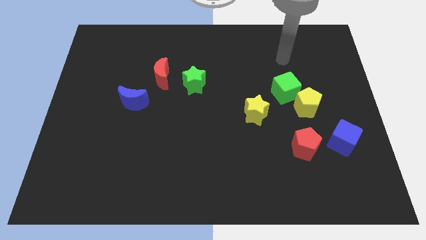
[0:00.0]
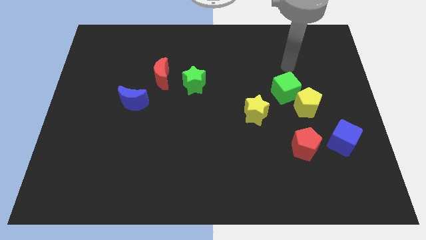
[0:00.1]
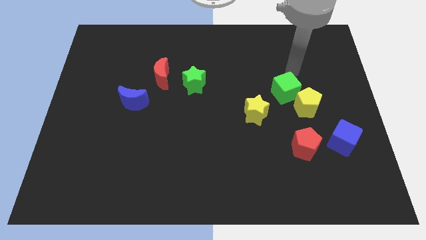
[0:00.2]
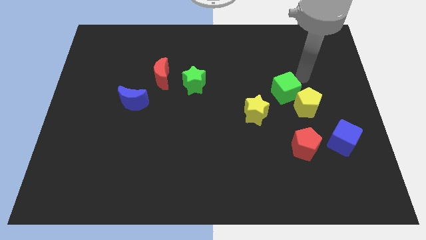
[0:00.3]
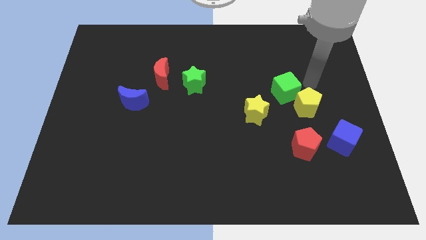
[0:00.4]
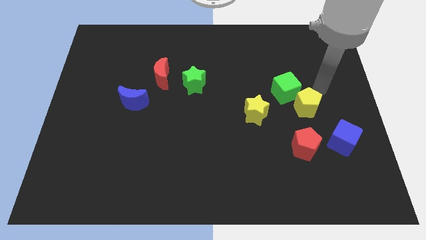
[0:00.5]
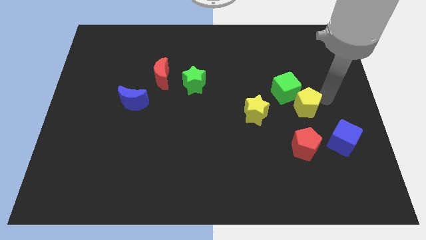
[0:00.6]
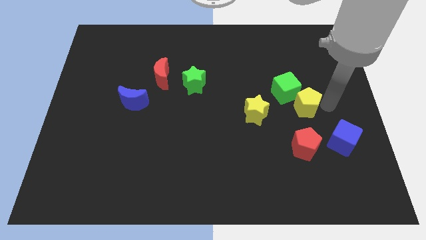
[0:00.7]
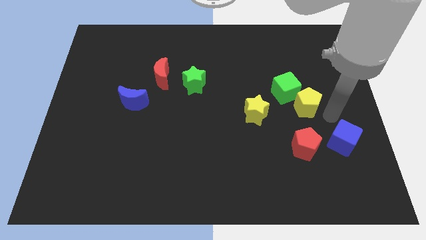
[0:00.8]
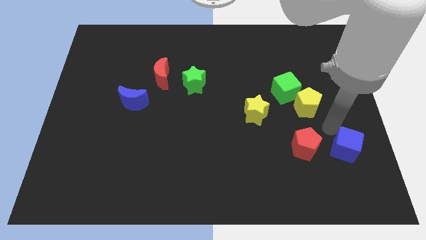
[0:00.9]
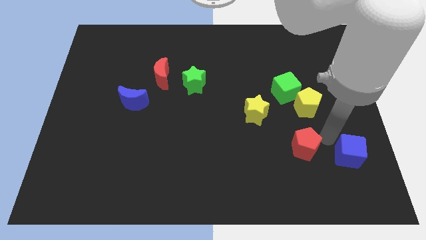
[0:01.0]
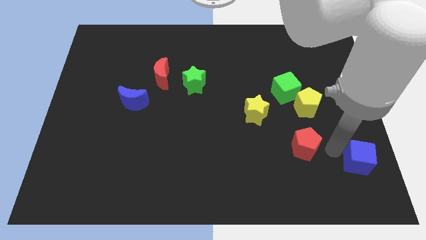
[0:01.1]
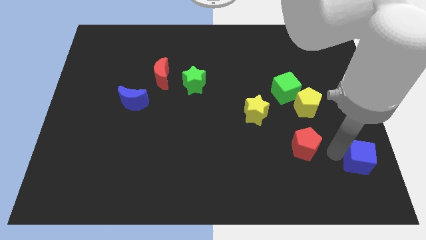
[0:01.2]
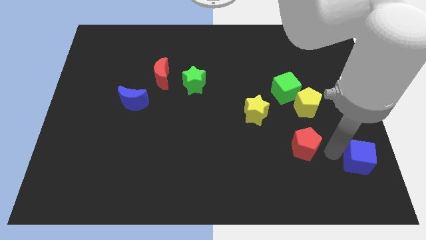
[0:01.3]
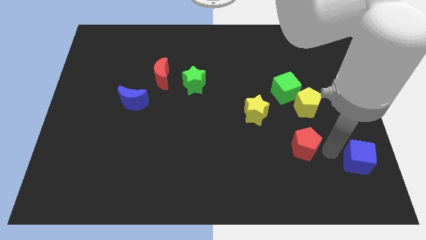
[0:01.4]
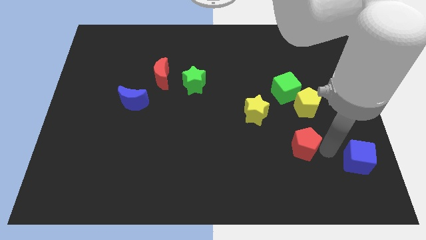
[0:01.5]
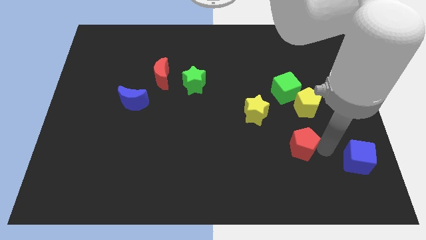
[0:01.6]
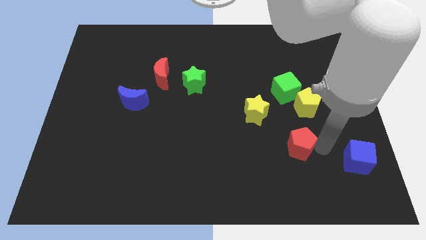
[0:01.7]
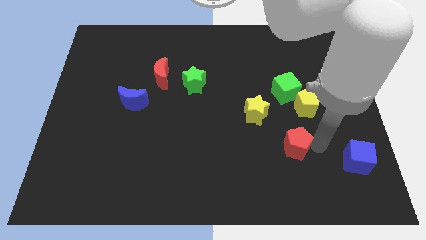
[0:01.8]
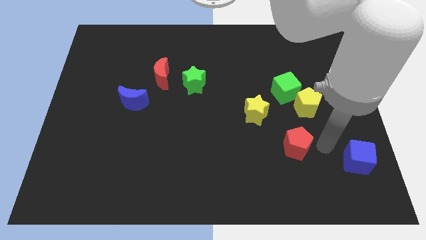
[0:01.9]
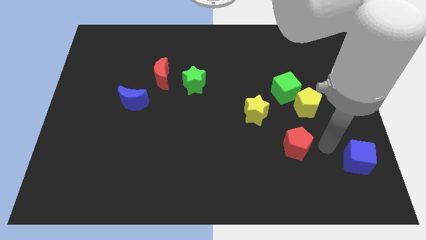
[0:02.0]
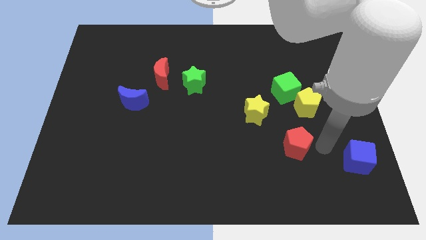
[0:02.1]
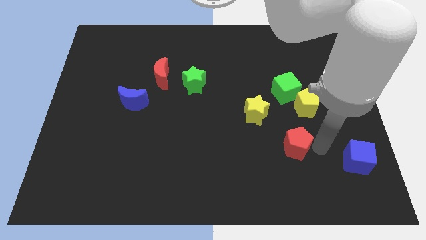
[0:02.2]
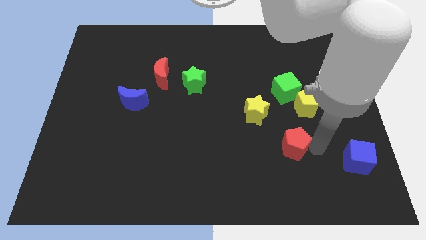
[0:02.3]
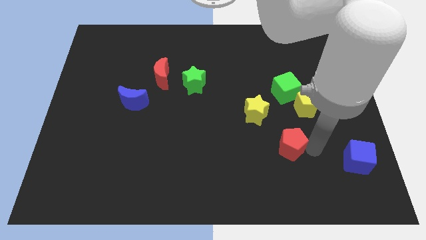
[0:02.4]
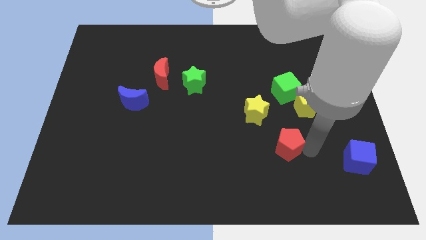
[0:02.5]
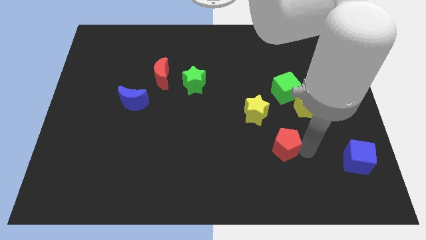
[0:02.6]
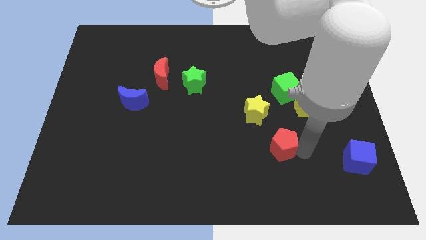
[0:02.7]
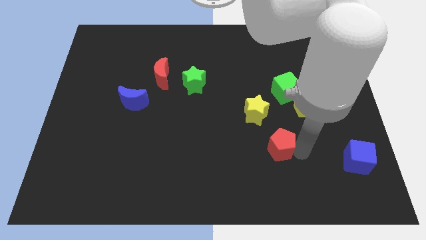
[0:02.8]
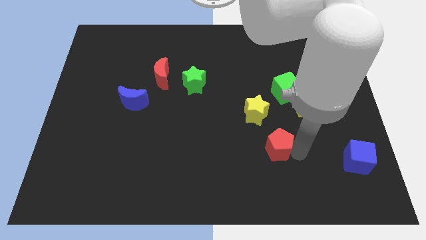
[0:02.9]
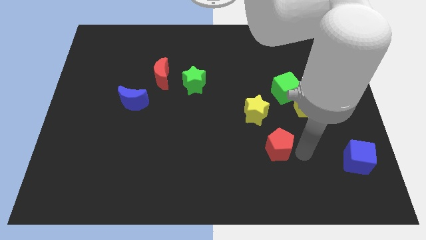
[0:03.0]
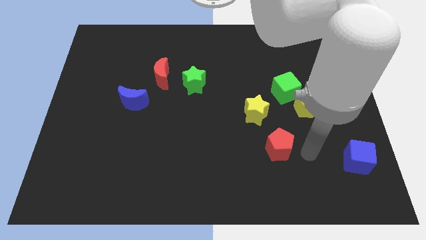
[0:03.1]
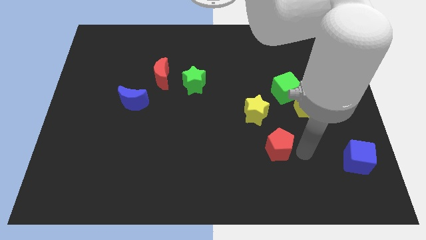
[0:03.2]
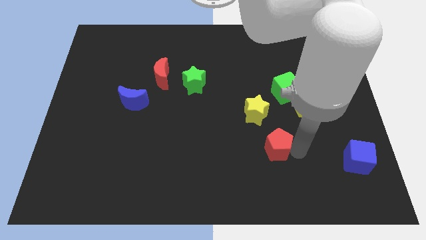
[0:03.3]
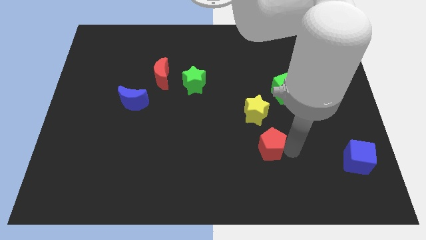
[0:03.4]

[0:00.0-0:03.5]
slide the red pentagon to the left a little

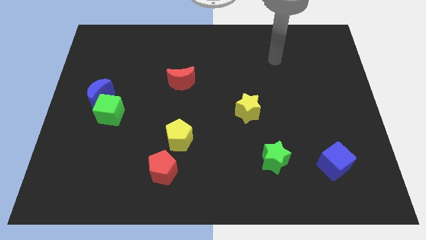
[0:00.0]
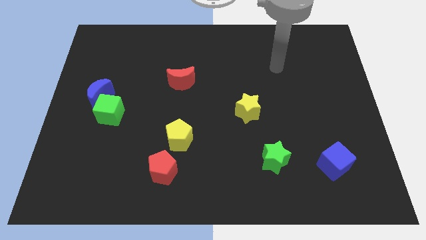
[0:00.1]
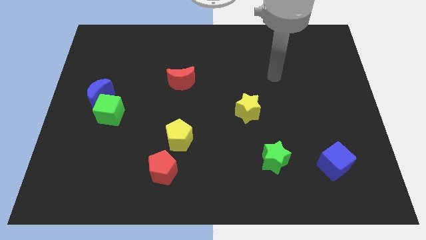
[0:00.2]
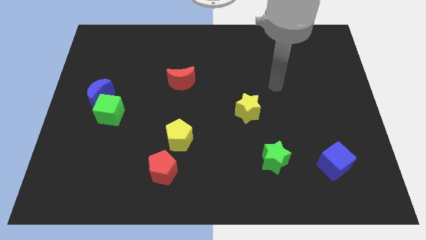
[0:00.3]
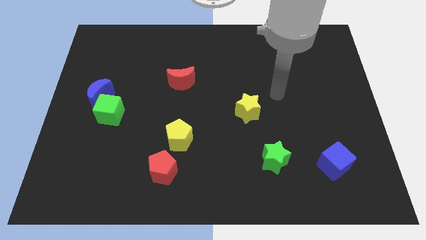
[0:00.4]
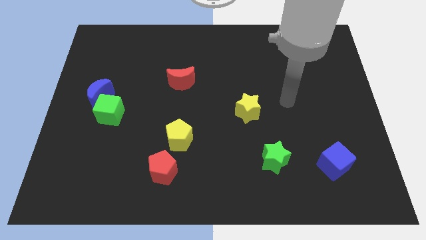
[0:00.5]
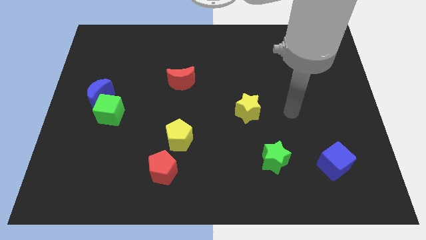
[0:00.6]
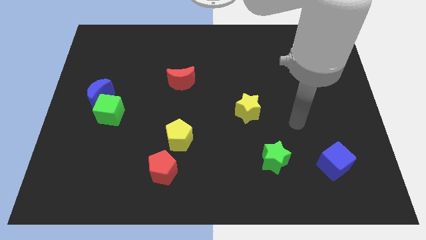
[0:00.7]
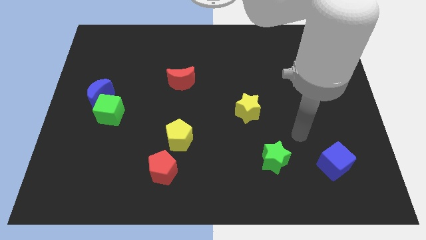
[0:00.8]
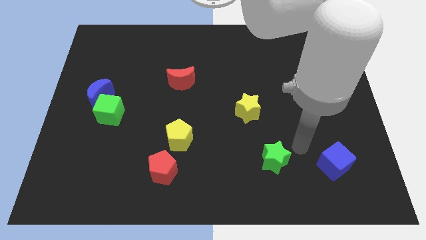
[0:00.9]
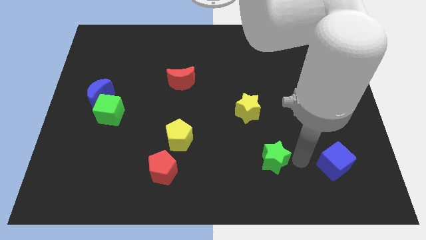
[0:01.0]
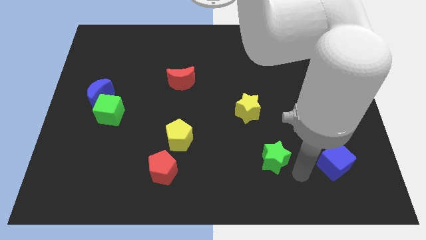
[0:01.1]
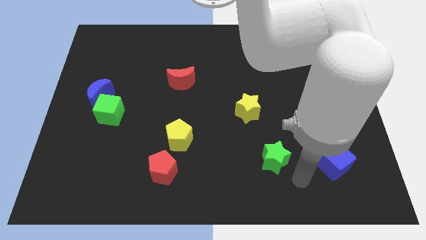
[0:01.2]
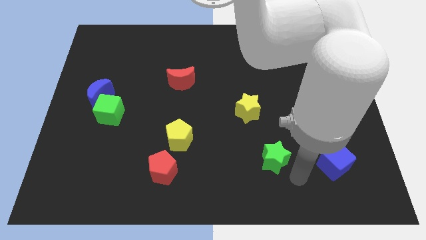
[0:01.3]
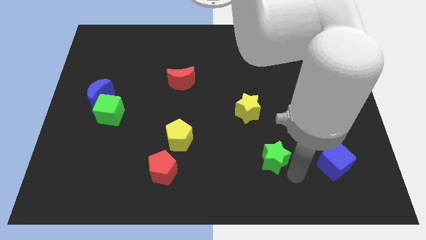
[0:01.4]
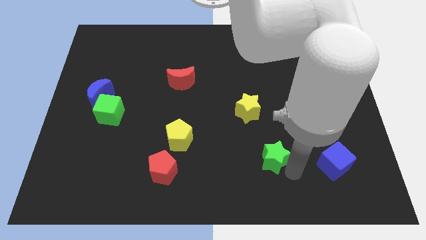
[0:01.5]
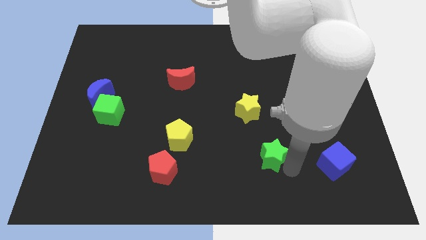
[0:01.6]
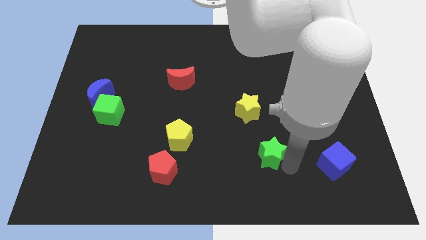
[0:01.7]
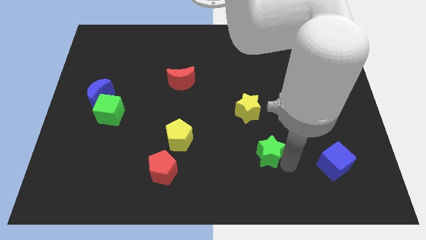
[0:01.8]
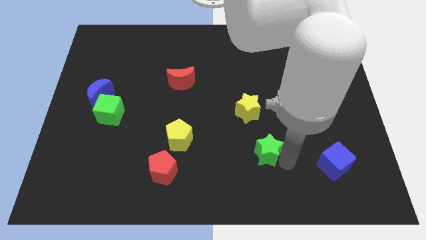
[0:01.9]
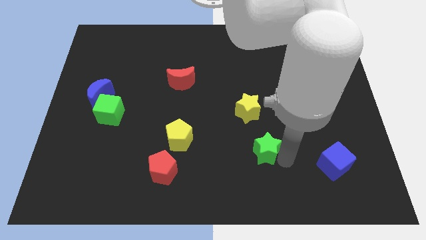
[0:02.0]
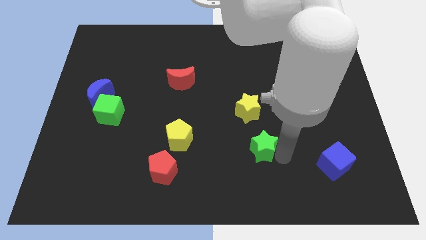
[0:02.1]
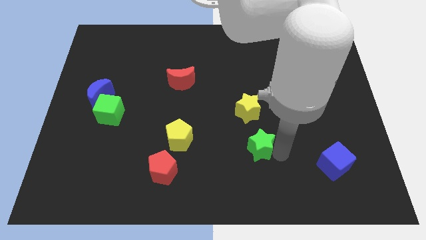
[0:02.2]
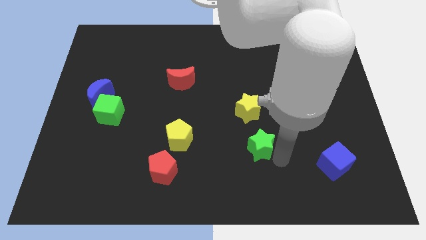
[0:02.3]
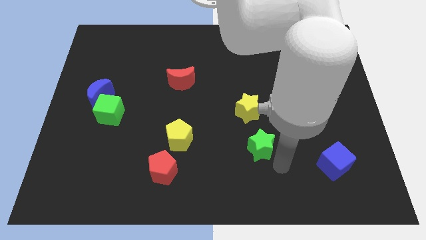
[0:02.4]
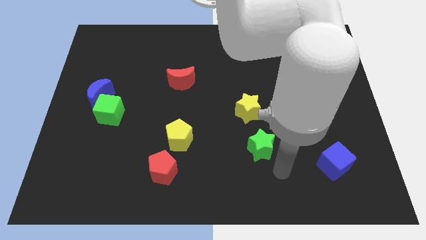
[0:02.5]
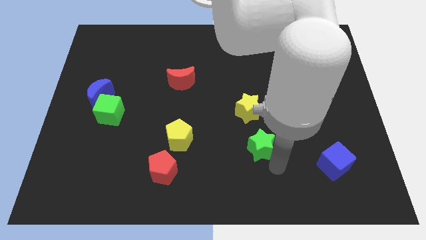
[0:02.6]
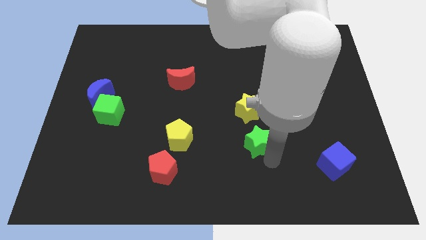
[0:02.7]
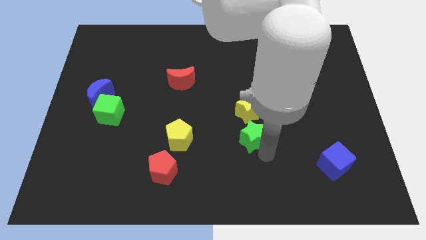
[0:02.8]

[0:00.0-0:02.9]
push the green star a little up and then to the left

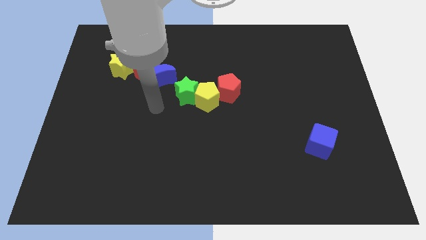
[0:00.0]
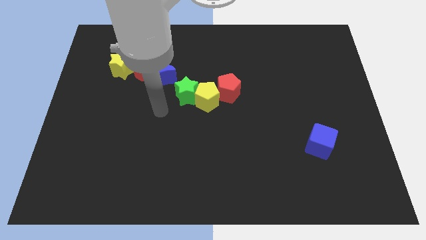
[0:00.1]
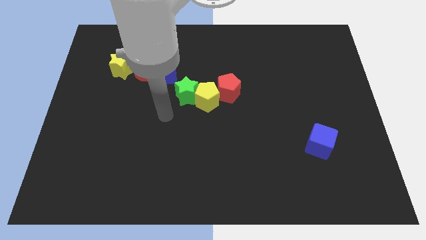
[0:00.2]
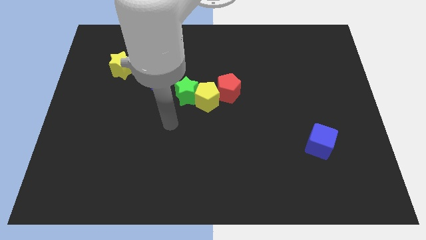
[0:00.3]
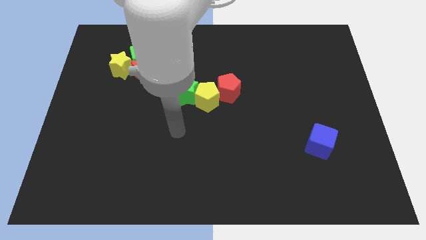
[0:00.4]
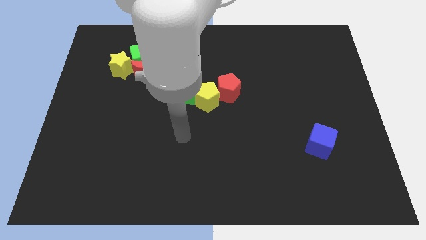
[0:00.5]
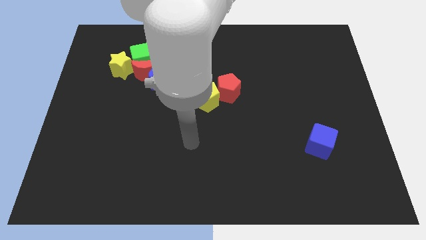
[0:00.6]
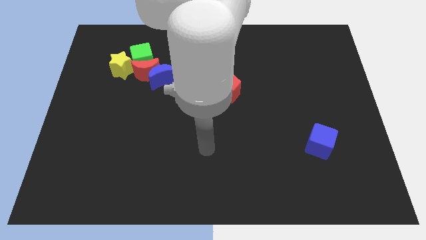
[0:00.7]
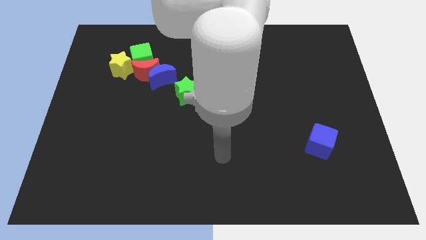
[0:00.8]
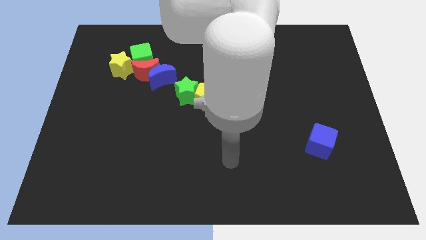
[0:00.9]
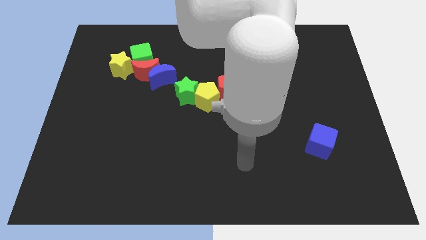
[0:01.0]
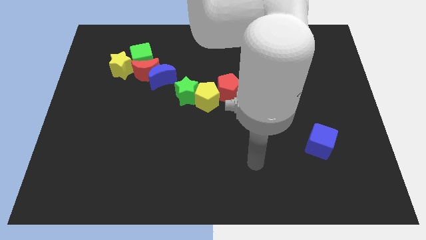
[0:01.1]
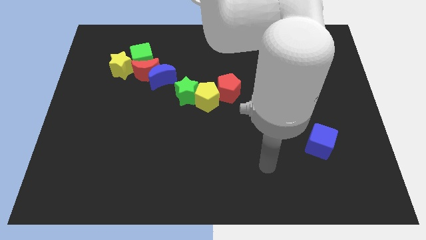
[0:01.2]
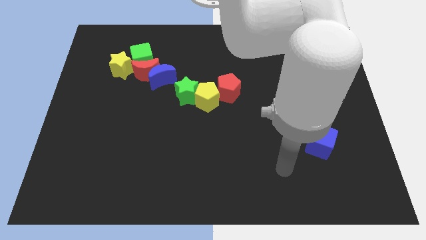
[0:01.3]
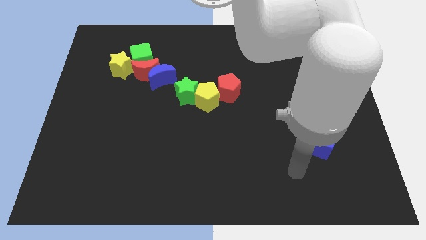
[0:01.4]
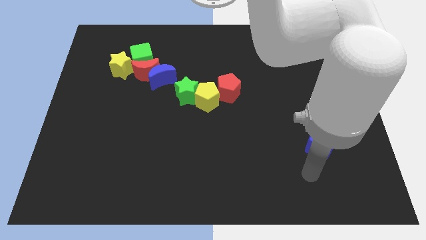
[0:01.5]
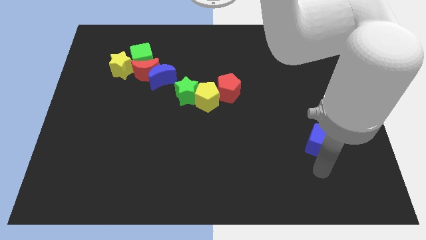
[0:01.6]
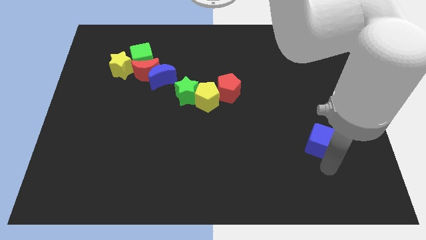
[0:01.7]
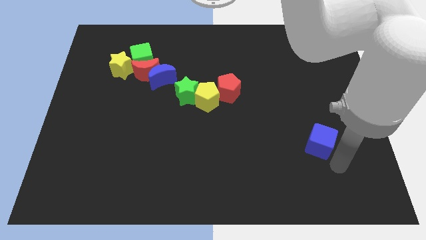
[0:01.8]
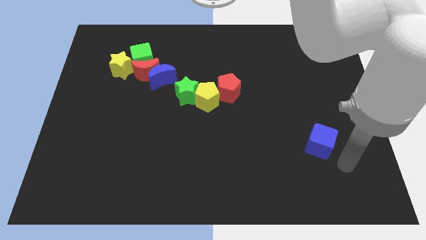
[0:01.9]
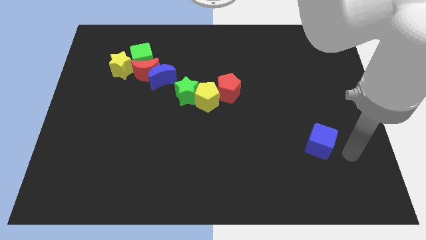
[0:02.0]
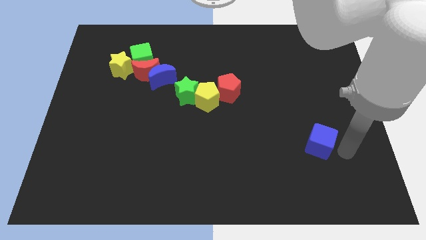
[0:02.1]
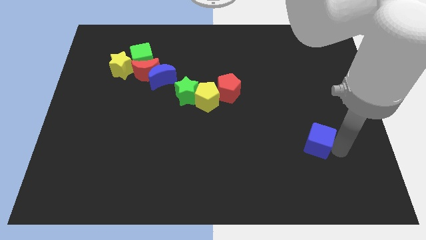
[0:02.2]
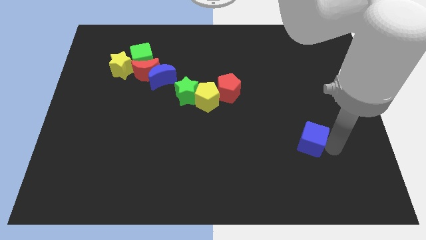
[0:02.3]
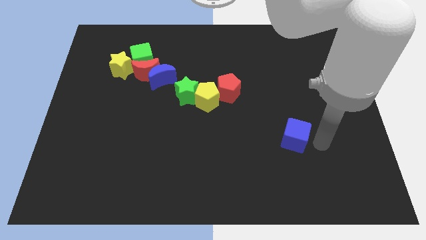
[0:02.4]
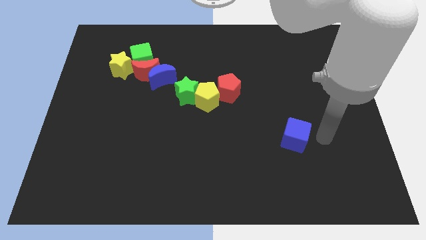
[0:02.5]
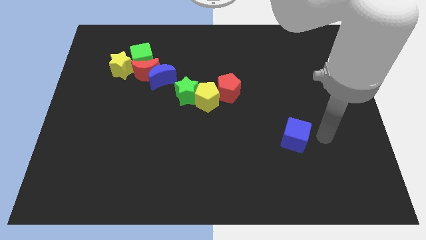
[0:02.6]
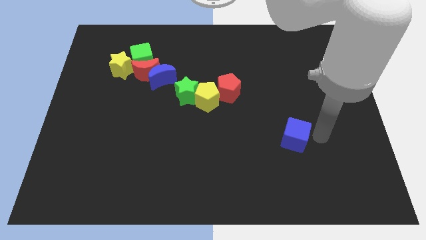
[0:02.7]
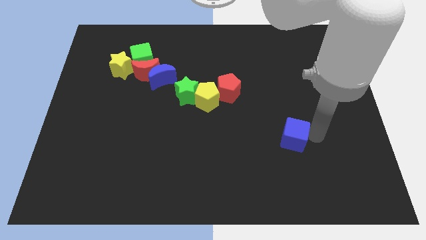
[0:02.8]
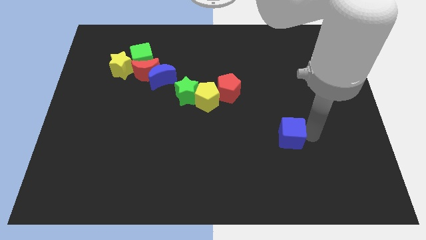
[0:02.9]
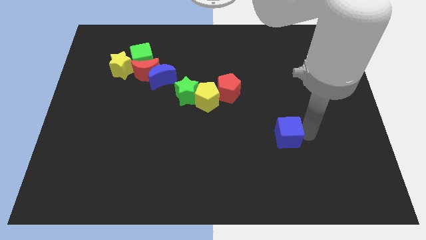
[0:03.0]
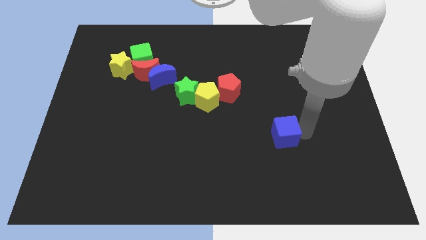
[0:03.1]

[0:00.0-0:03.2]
slide the blue cube left somewhat
